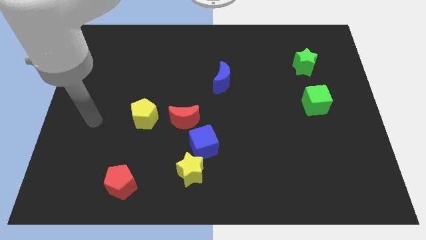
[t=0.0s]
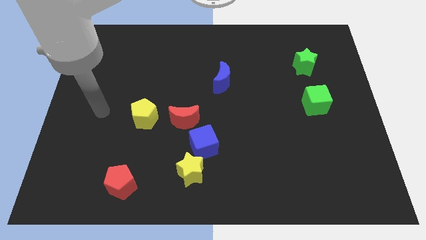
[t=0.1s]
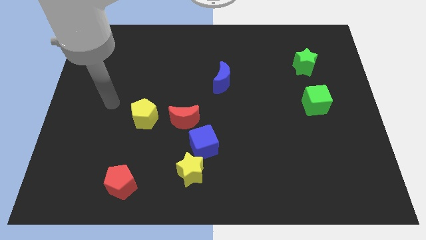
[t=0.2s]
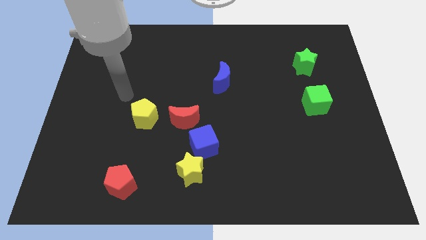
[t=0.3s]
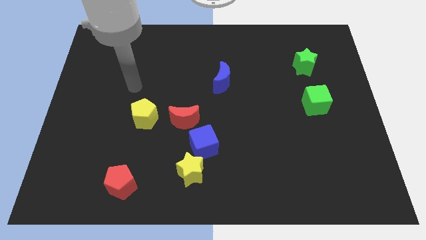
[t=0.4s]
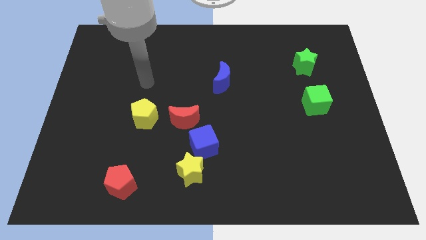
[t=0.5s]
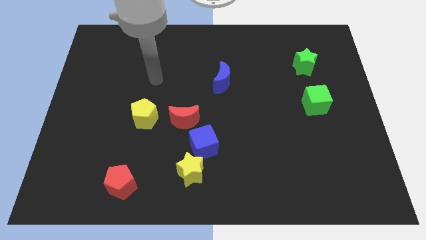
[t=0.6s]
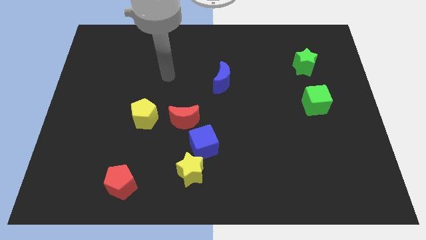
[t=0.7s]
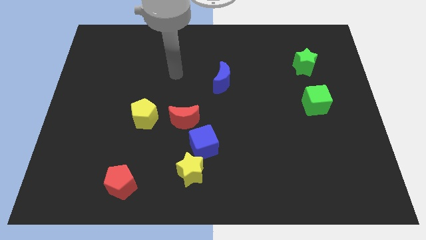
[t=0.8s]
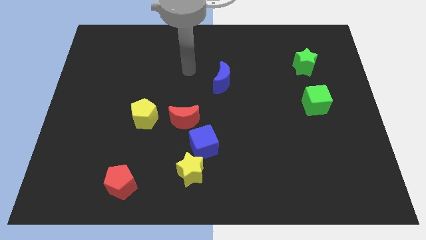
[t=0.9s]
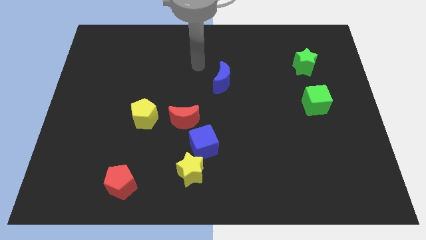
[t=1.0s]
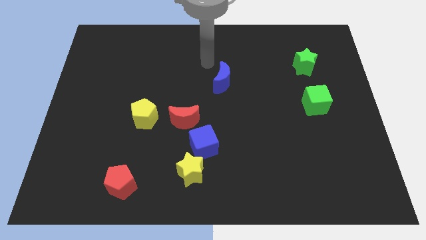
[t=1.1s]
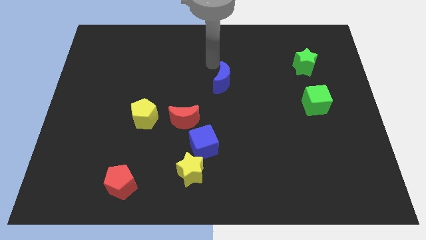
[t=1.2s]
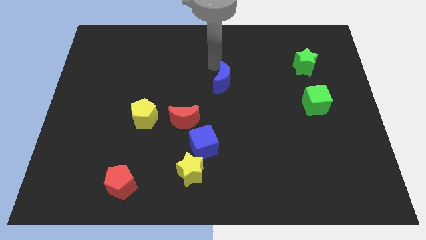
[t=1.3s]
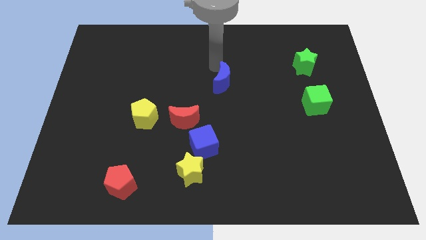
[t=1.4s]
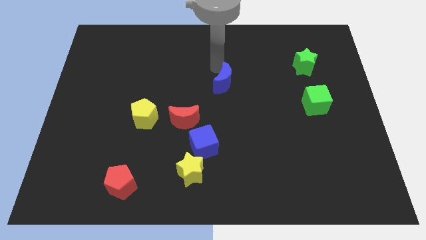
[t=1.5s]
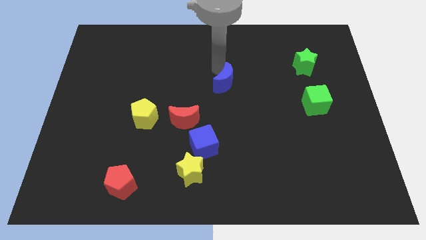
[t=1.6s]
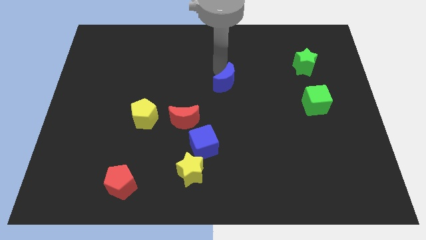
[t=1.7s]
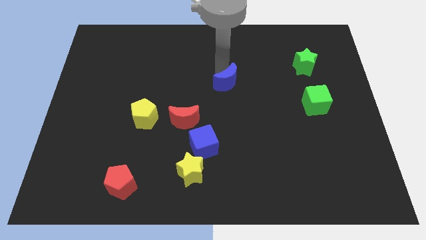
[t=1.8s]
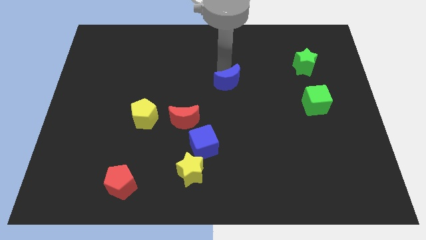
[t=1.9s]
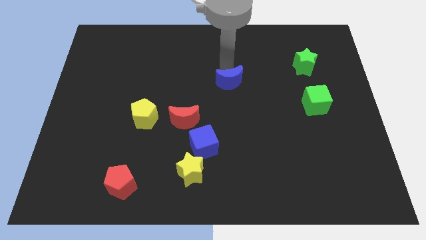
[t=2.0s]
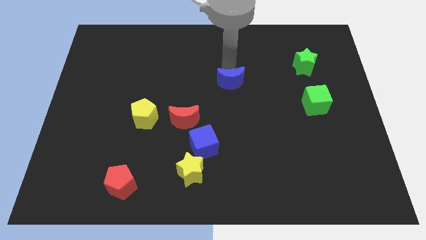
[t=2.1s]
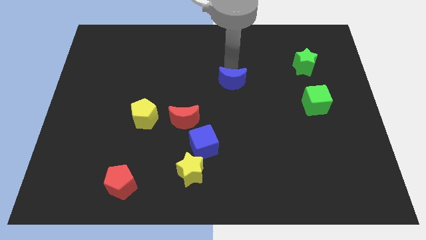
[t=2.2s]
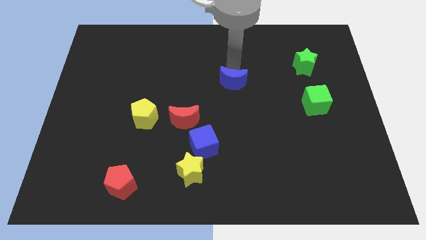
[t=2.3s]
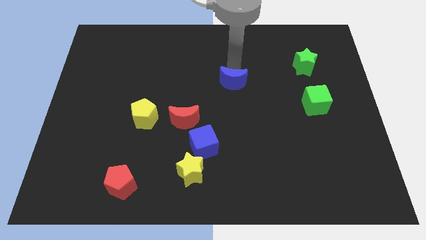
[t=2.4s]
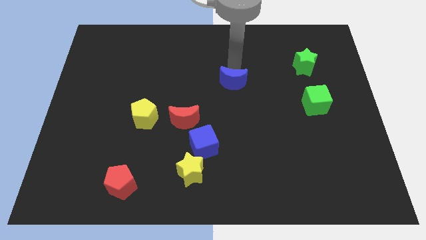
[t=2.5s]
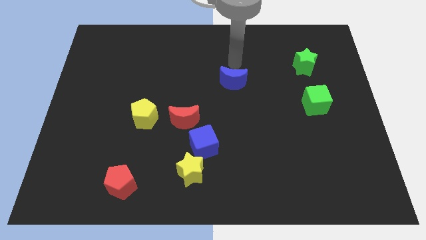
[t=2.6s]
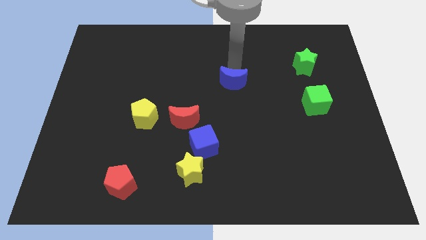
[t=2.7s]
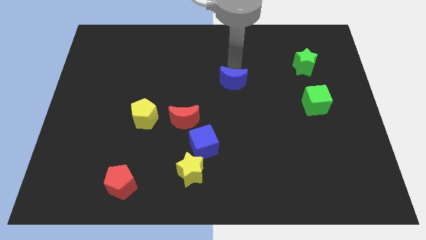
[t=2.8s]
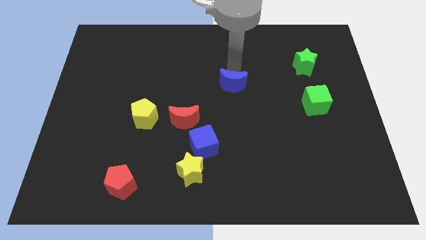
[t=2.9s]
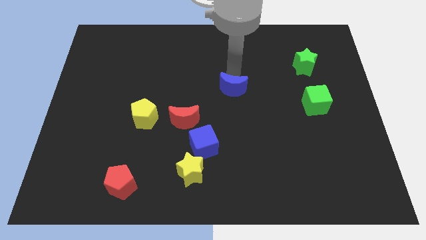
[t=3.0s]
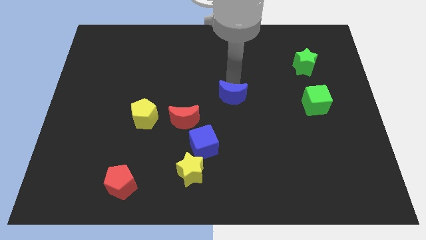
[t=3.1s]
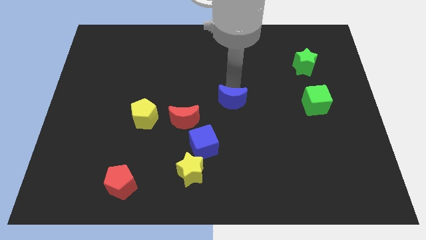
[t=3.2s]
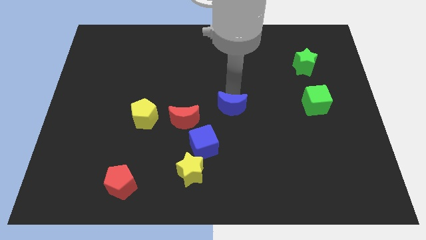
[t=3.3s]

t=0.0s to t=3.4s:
slightly move the blue moon downwards

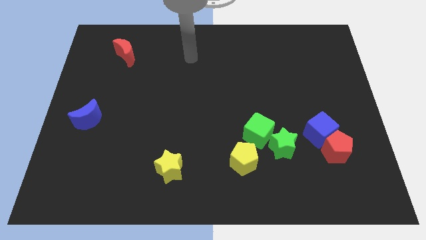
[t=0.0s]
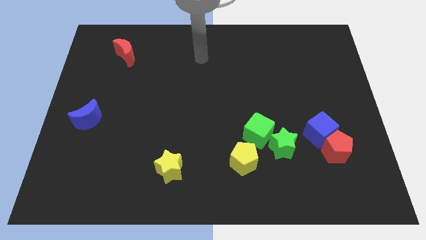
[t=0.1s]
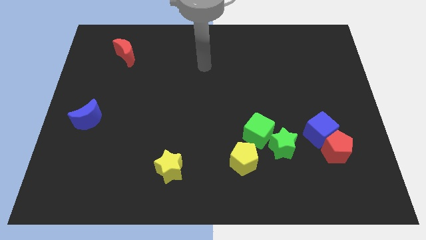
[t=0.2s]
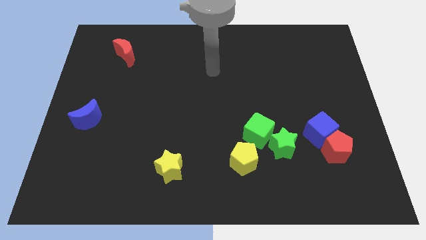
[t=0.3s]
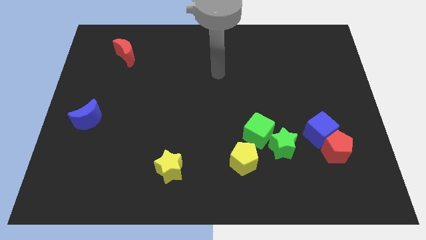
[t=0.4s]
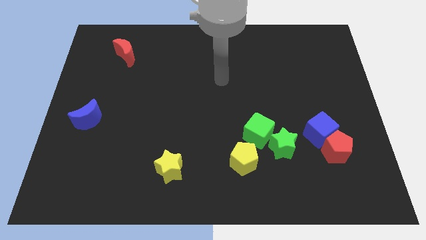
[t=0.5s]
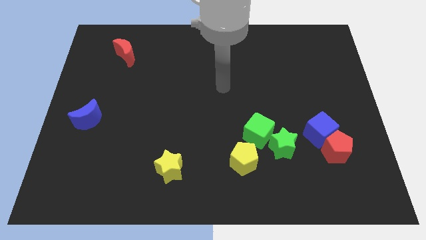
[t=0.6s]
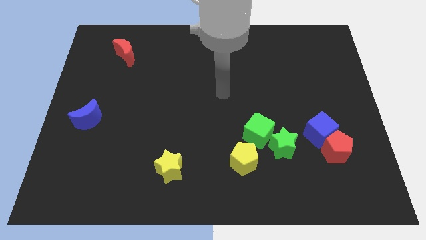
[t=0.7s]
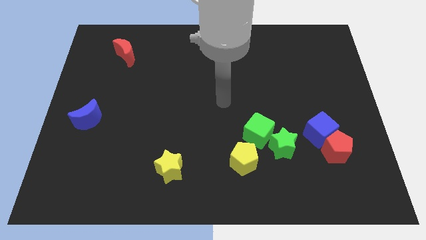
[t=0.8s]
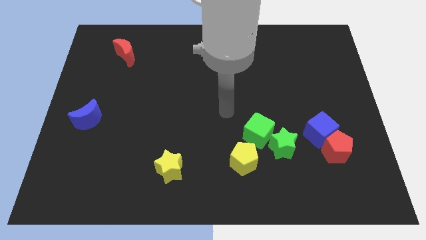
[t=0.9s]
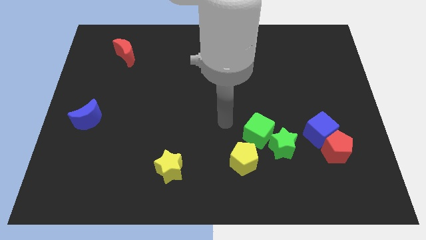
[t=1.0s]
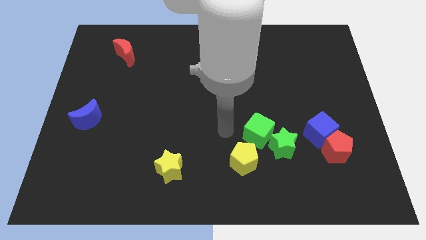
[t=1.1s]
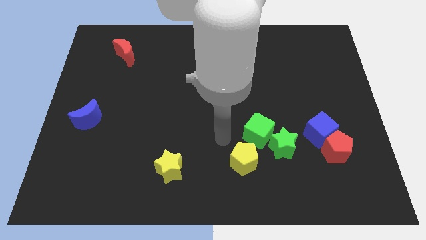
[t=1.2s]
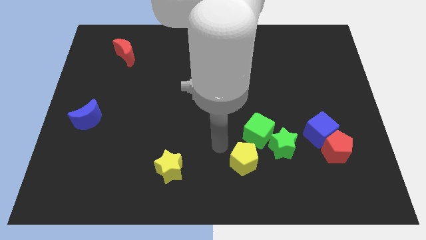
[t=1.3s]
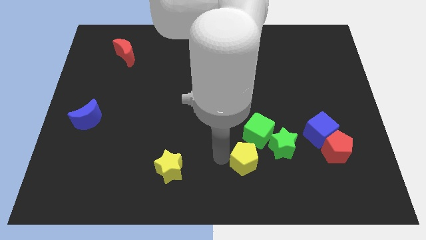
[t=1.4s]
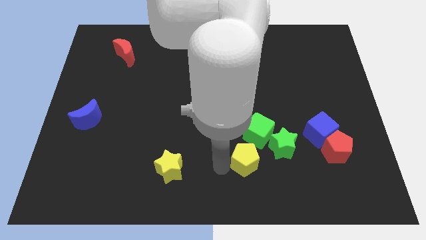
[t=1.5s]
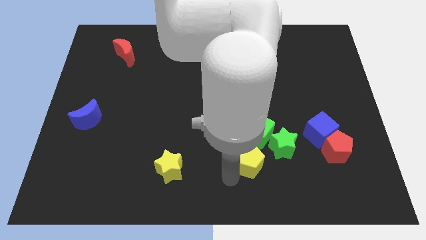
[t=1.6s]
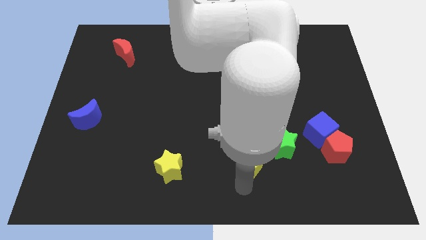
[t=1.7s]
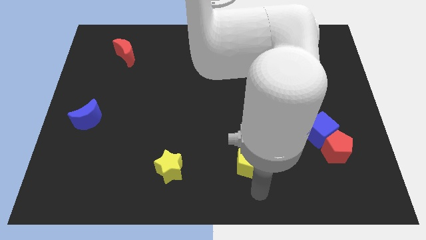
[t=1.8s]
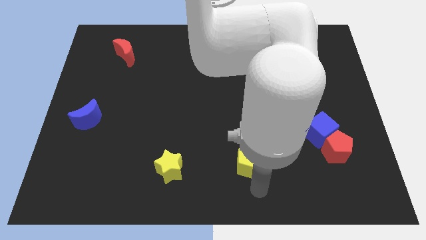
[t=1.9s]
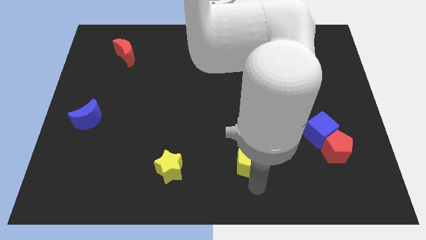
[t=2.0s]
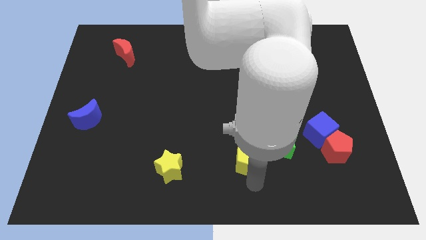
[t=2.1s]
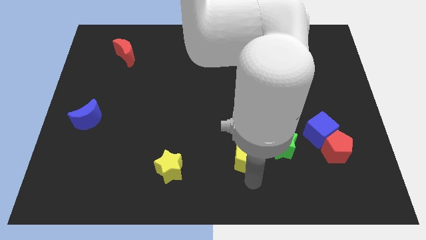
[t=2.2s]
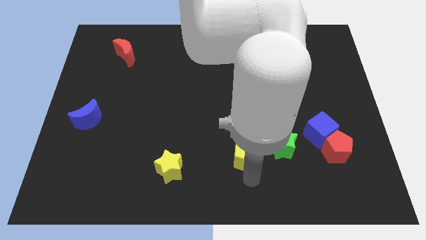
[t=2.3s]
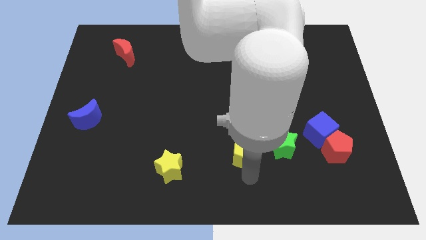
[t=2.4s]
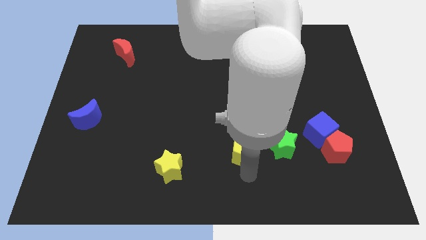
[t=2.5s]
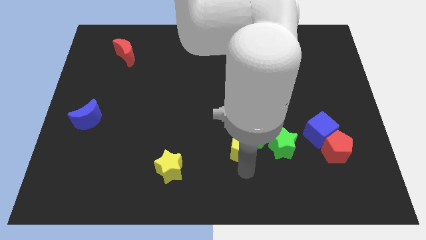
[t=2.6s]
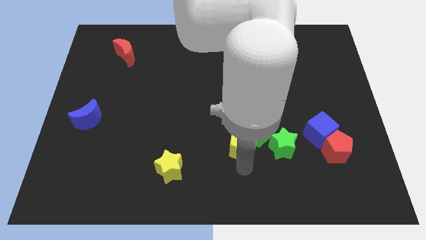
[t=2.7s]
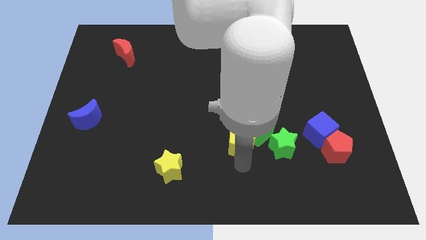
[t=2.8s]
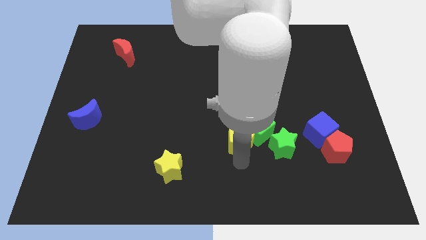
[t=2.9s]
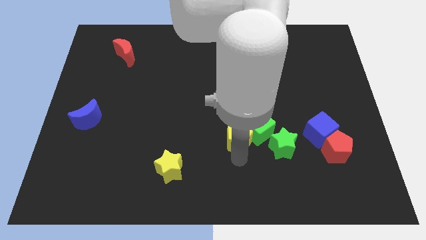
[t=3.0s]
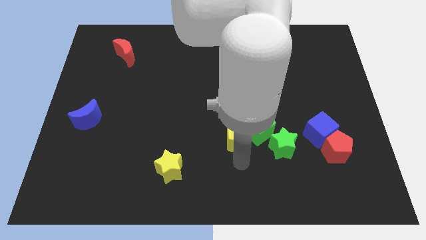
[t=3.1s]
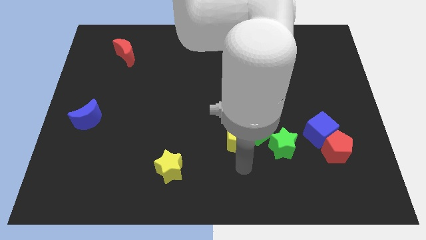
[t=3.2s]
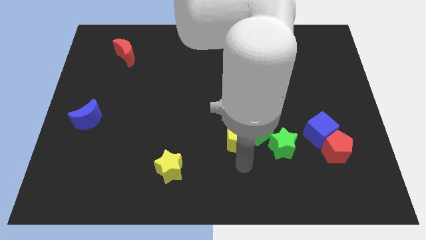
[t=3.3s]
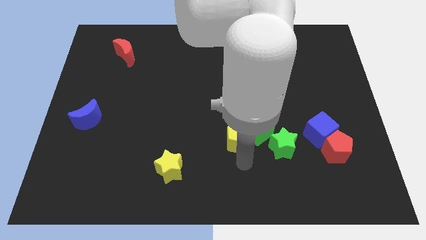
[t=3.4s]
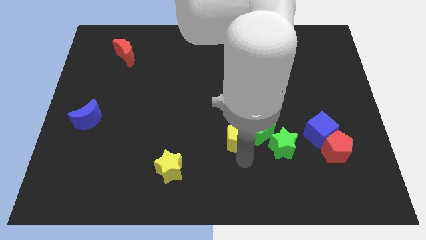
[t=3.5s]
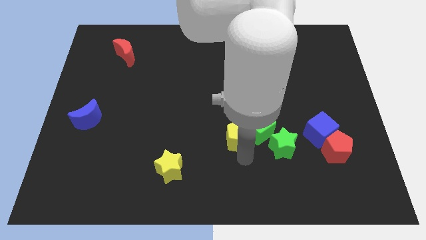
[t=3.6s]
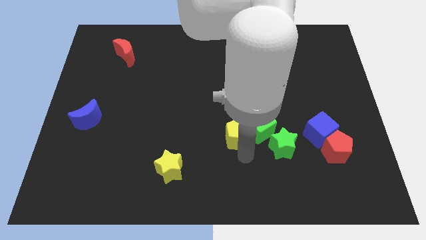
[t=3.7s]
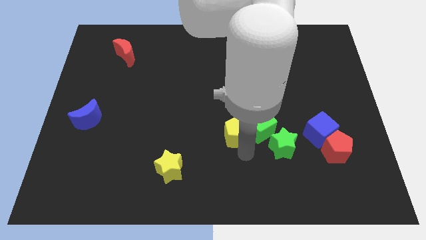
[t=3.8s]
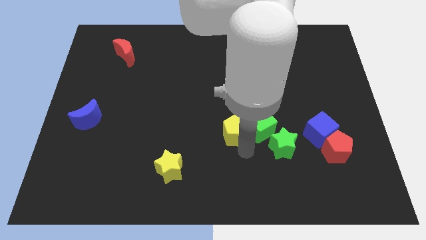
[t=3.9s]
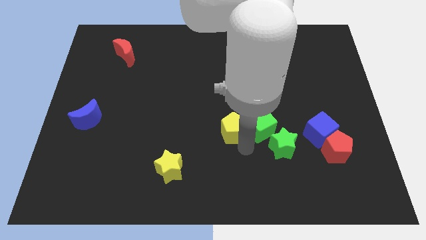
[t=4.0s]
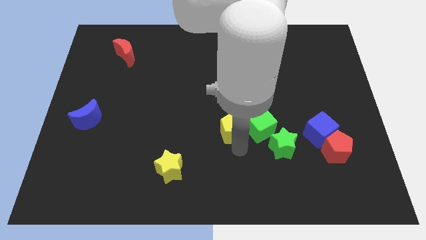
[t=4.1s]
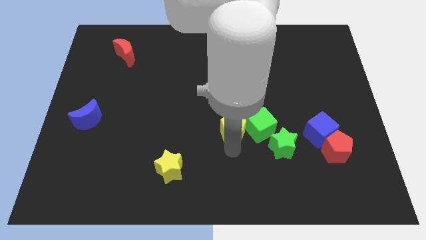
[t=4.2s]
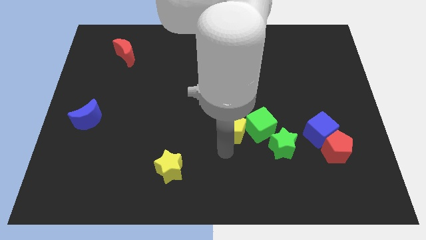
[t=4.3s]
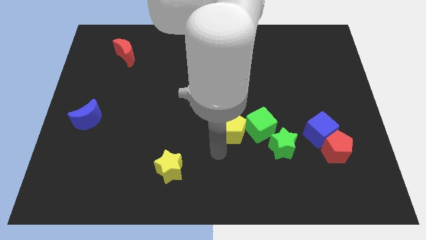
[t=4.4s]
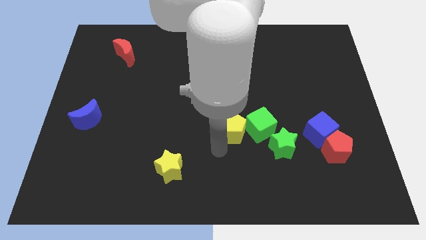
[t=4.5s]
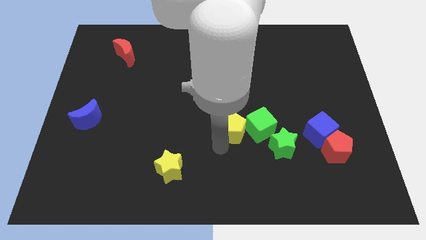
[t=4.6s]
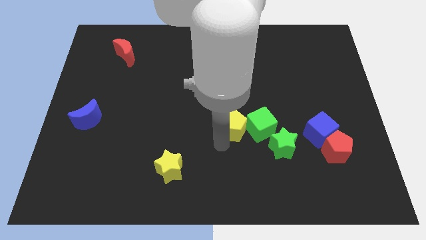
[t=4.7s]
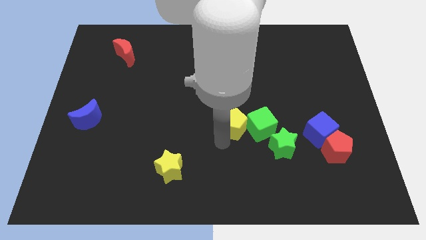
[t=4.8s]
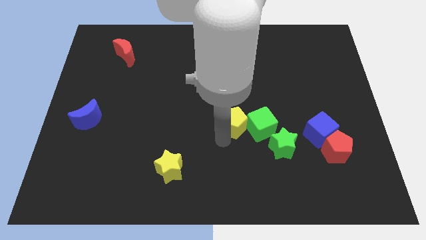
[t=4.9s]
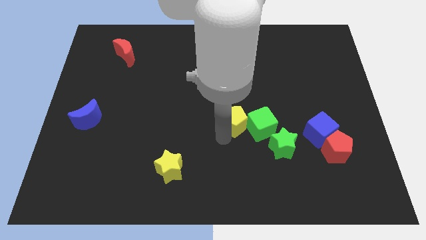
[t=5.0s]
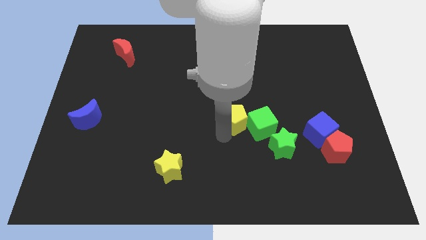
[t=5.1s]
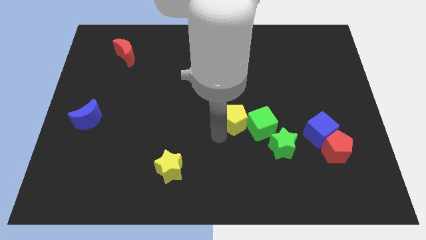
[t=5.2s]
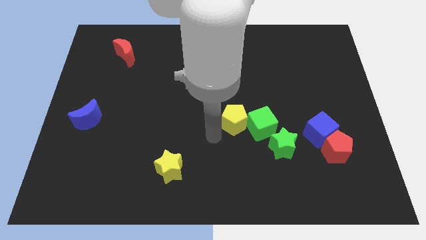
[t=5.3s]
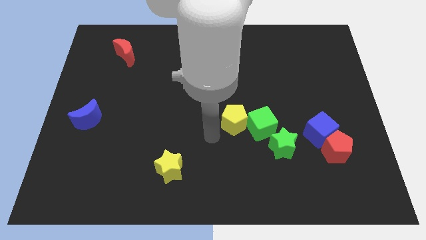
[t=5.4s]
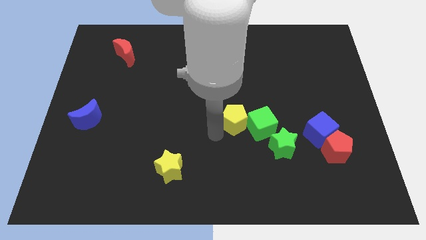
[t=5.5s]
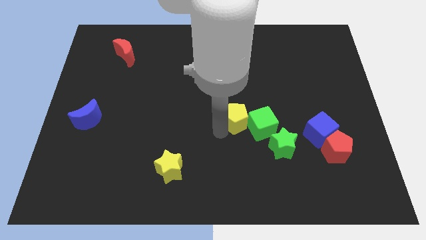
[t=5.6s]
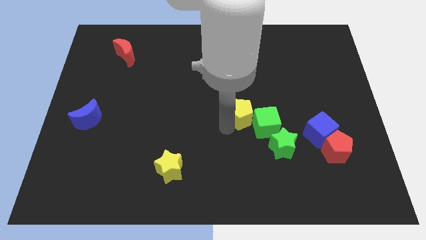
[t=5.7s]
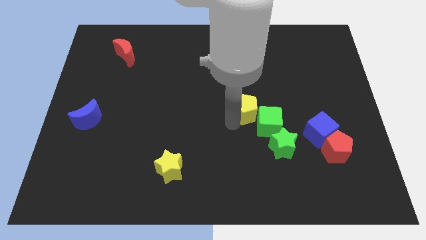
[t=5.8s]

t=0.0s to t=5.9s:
slide the yellow pentagon a little bit diagonally up and to the right
